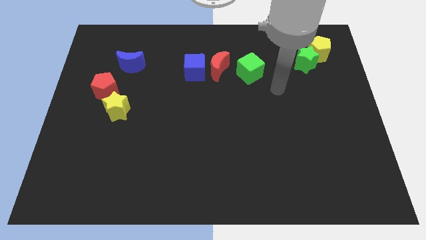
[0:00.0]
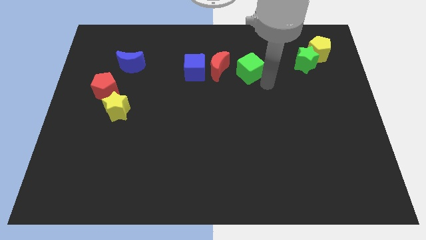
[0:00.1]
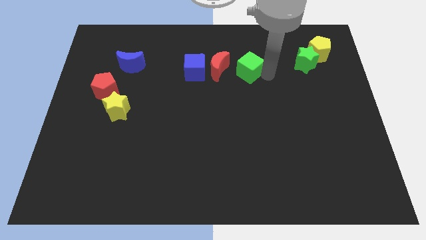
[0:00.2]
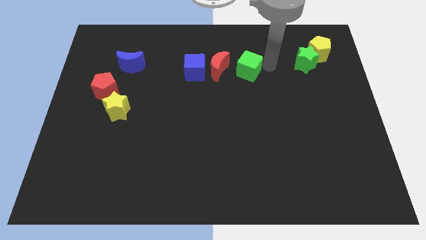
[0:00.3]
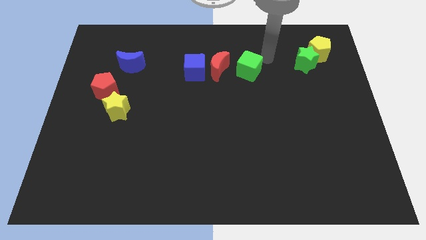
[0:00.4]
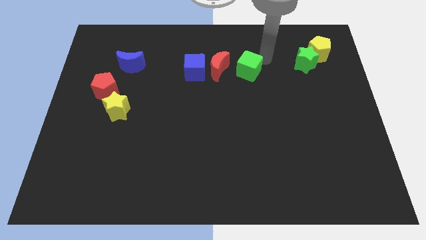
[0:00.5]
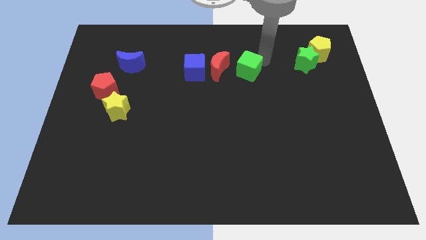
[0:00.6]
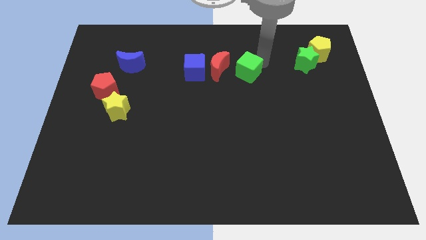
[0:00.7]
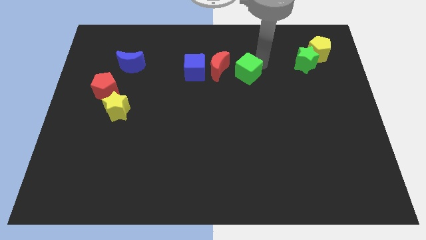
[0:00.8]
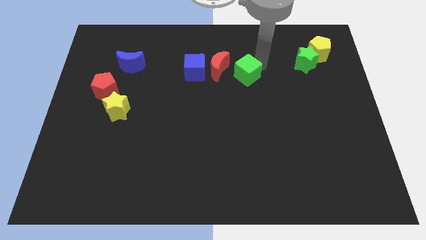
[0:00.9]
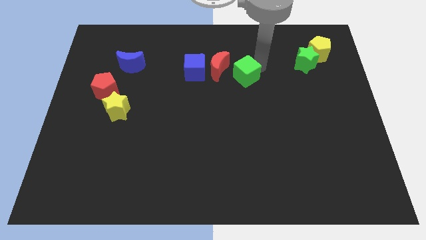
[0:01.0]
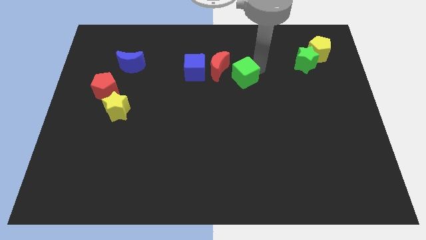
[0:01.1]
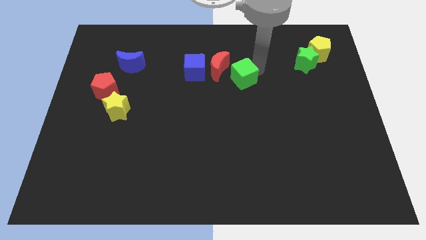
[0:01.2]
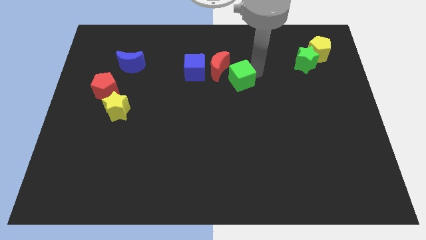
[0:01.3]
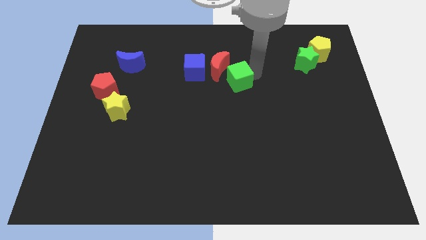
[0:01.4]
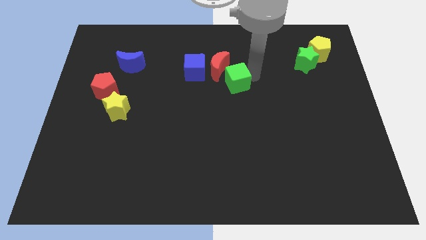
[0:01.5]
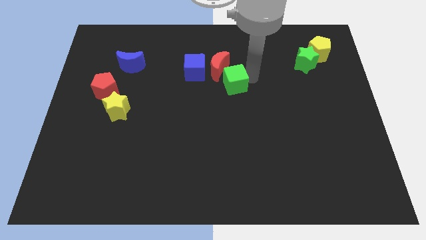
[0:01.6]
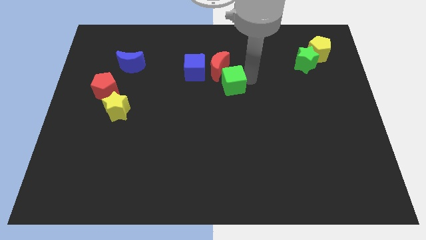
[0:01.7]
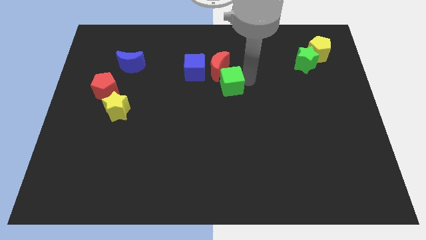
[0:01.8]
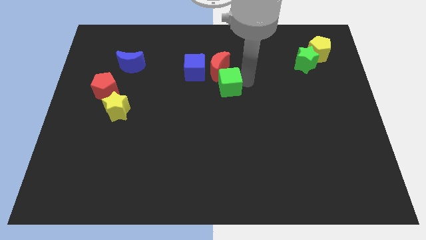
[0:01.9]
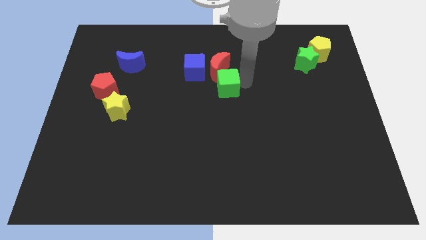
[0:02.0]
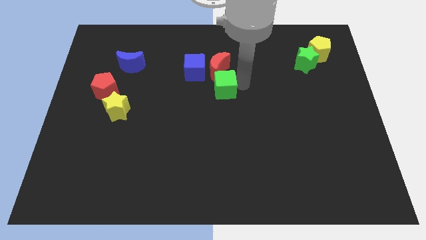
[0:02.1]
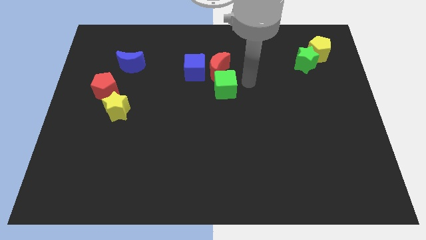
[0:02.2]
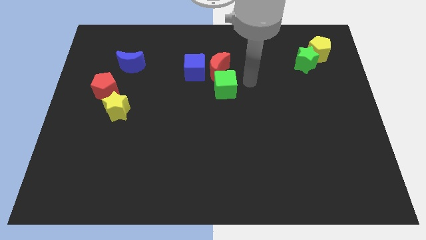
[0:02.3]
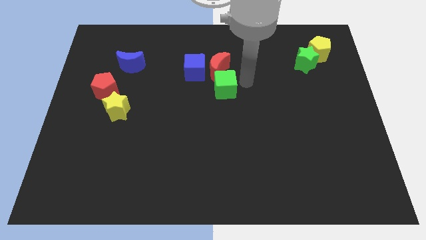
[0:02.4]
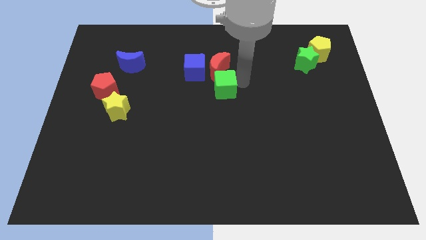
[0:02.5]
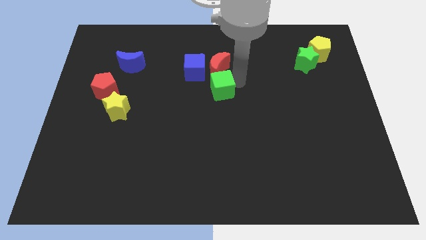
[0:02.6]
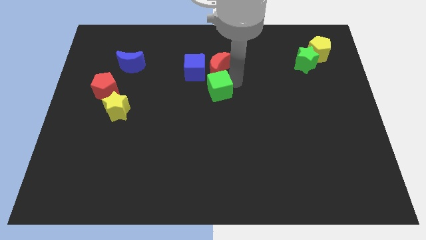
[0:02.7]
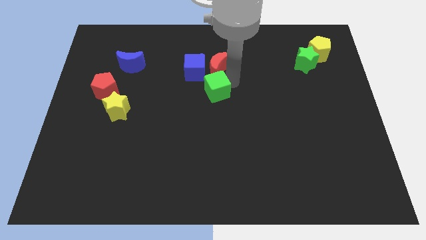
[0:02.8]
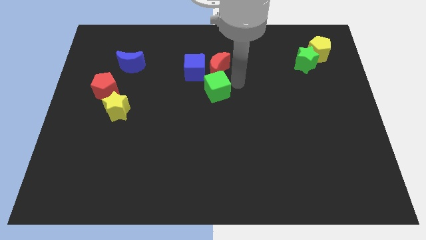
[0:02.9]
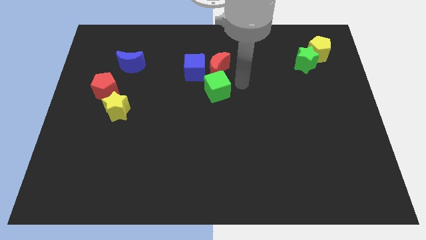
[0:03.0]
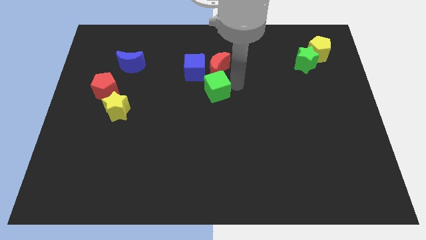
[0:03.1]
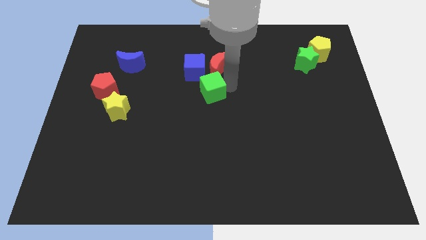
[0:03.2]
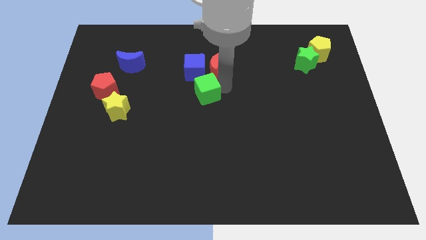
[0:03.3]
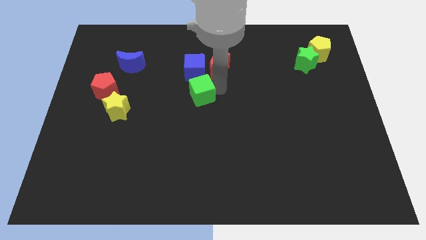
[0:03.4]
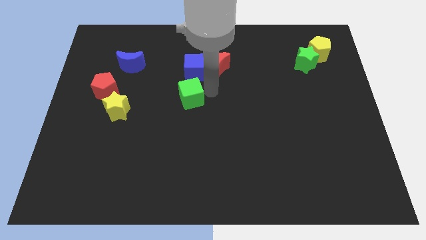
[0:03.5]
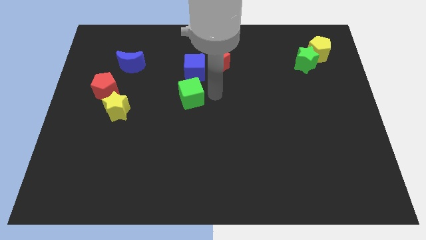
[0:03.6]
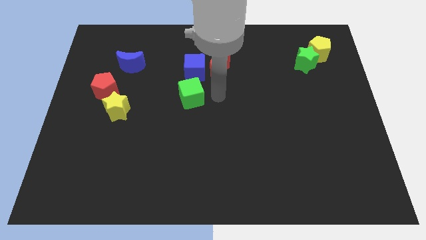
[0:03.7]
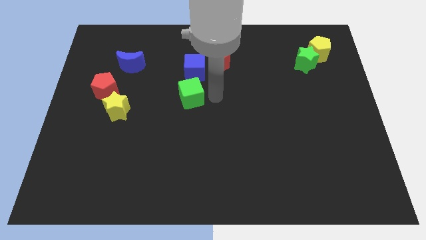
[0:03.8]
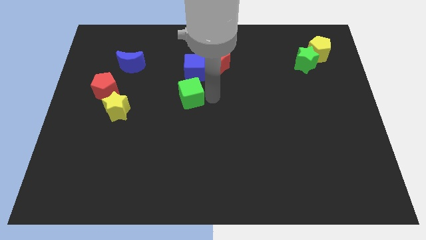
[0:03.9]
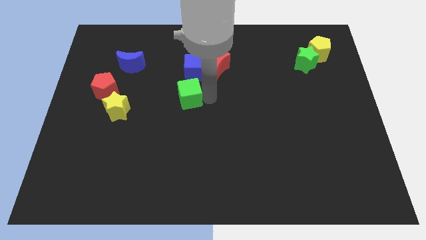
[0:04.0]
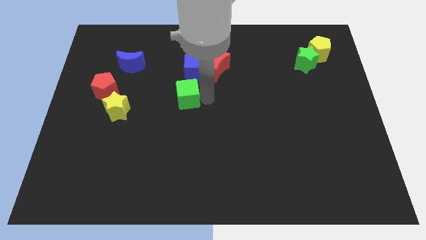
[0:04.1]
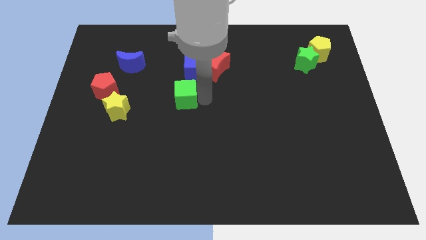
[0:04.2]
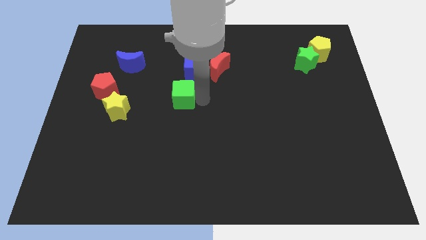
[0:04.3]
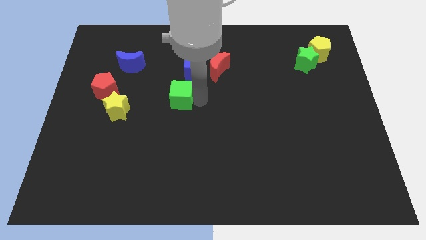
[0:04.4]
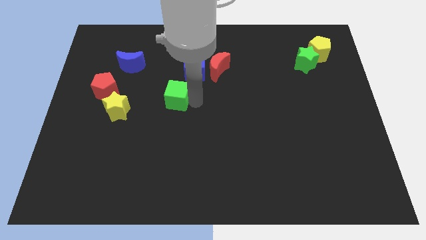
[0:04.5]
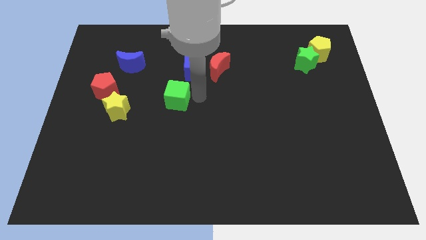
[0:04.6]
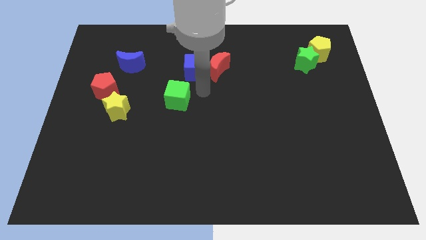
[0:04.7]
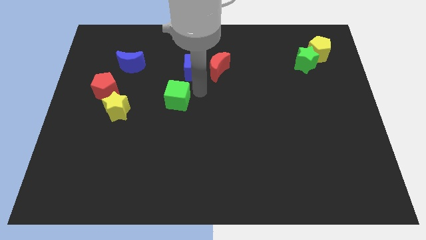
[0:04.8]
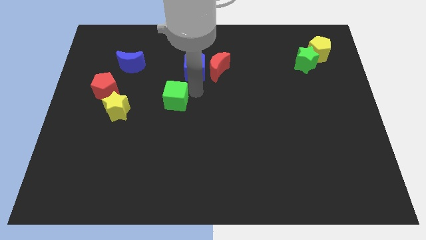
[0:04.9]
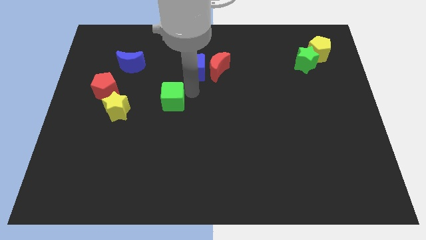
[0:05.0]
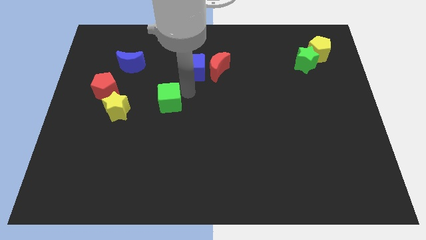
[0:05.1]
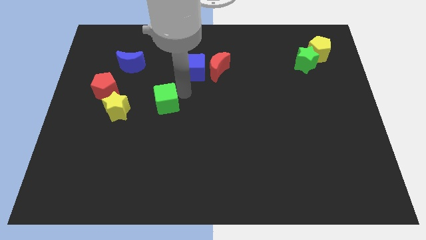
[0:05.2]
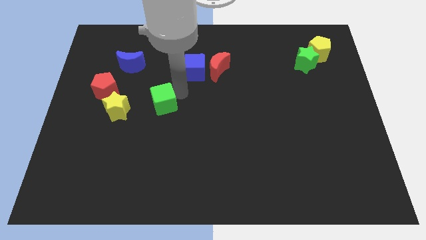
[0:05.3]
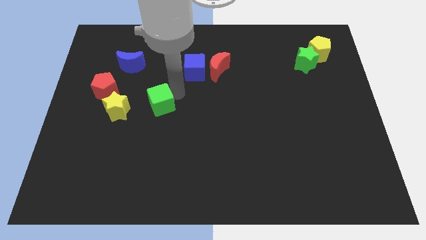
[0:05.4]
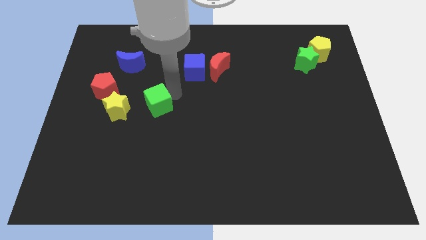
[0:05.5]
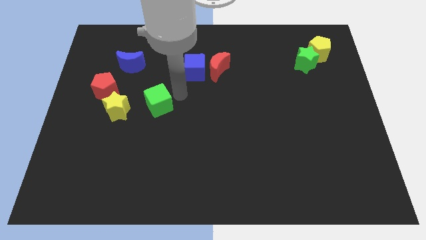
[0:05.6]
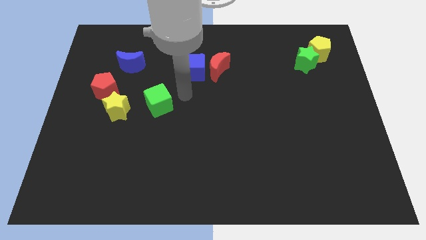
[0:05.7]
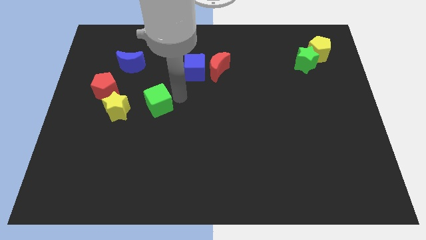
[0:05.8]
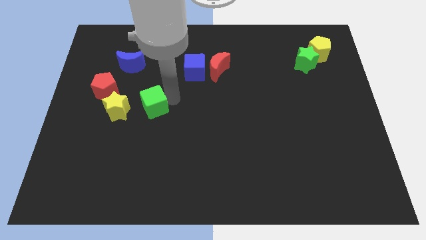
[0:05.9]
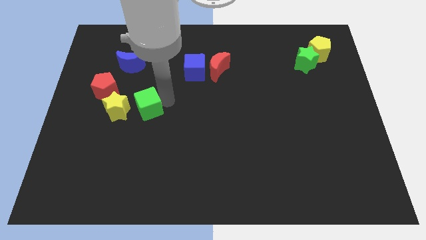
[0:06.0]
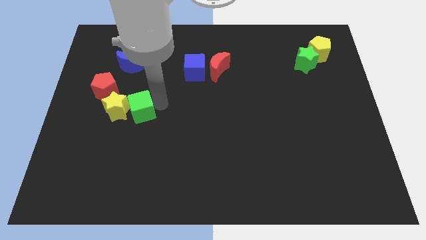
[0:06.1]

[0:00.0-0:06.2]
put the green cube to the bottom right of the red pentagon

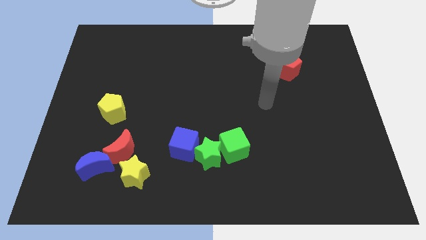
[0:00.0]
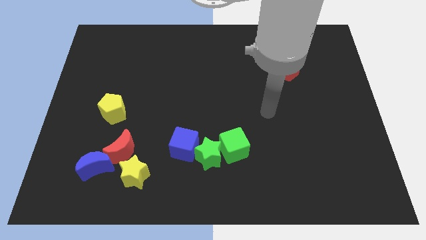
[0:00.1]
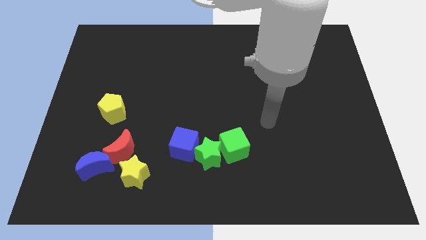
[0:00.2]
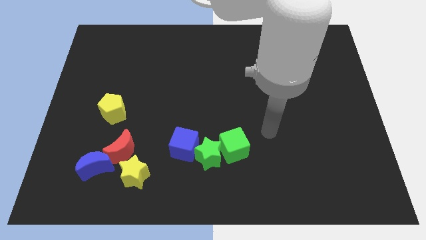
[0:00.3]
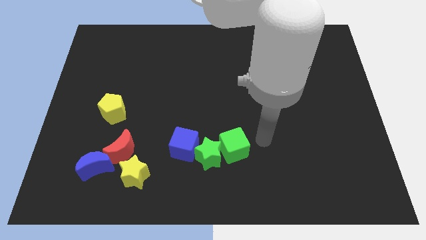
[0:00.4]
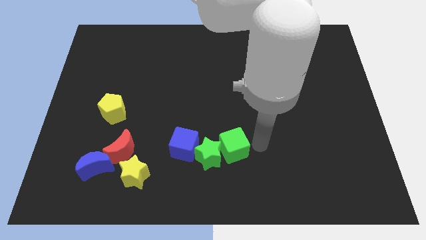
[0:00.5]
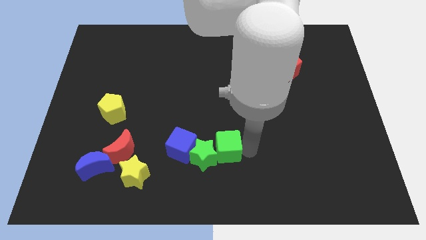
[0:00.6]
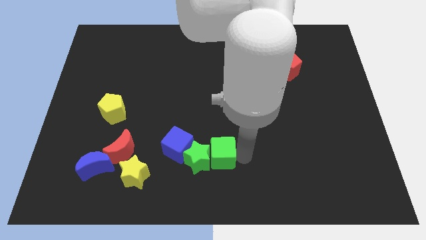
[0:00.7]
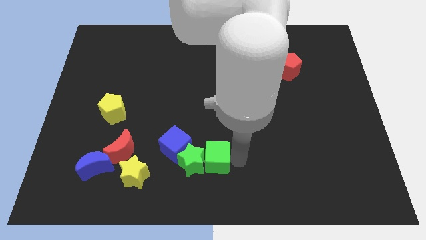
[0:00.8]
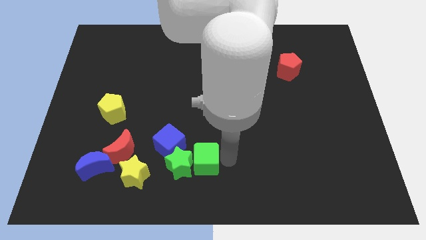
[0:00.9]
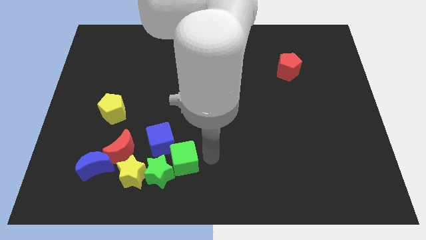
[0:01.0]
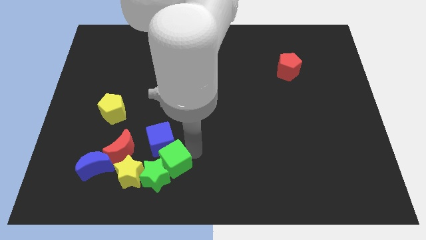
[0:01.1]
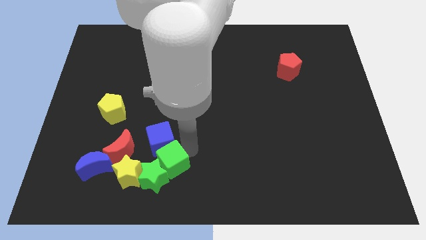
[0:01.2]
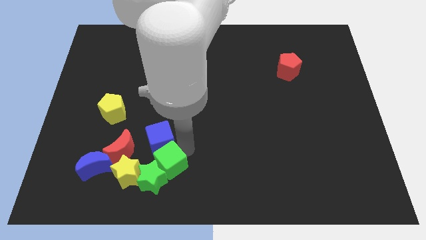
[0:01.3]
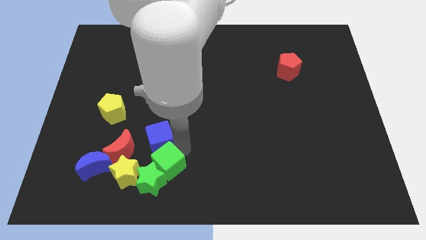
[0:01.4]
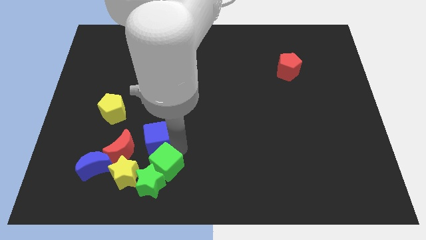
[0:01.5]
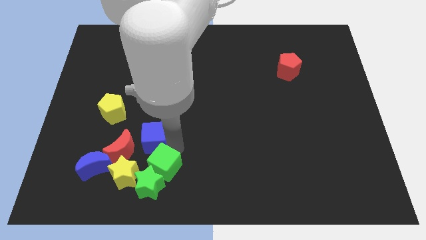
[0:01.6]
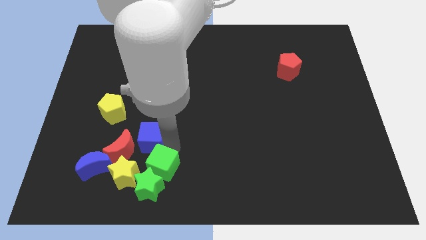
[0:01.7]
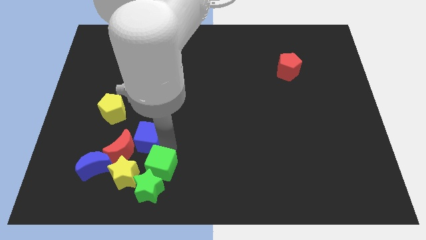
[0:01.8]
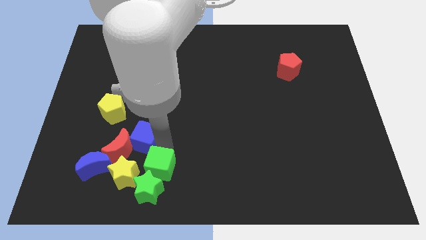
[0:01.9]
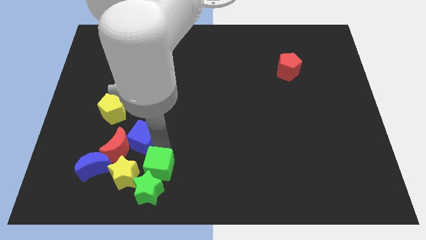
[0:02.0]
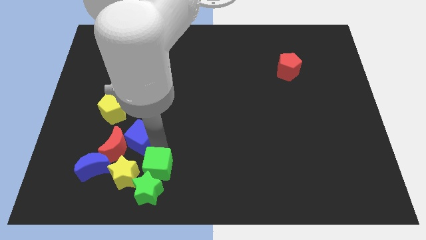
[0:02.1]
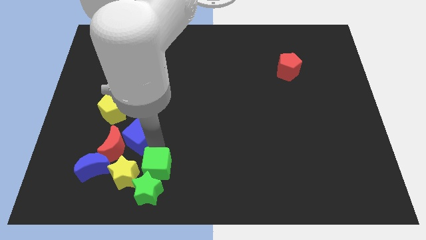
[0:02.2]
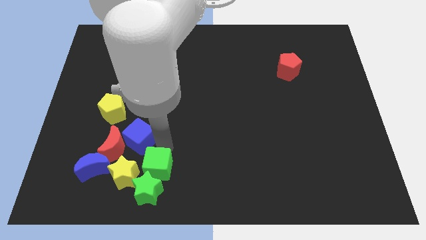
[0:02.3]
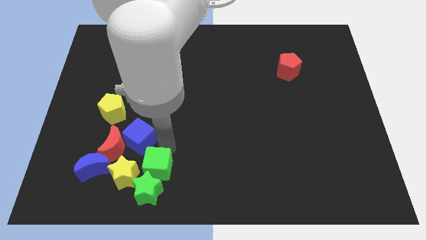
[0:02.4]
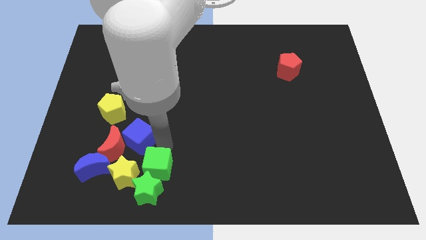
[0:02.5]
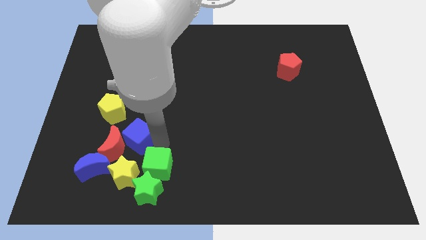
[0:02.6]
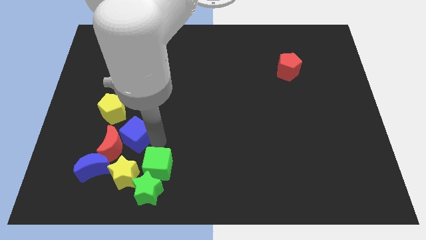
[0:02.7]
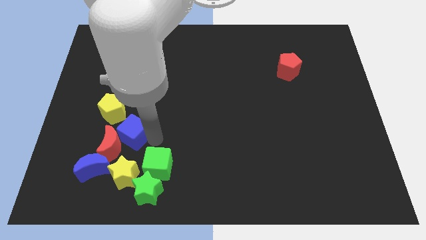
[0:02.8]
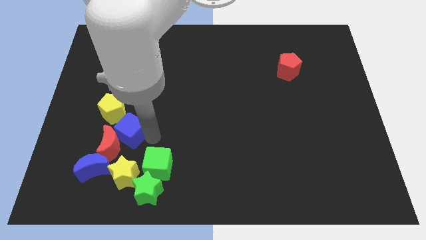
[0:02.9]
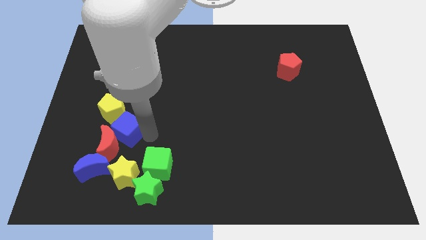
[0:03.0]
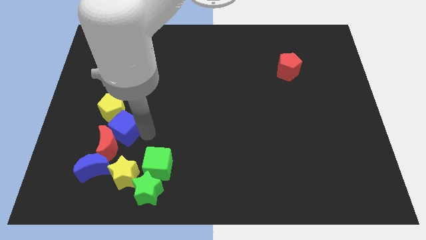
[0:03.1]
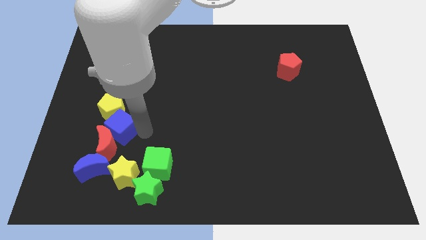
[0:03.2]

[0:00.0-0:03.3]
move the blue cube to the top side of the blue moon
